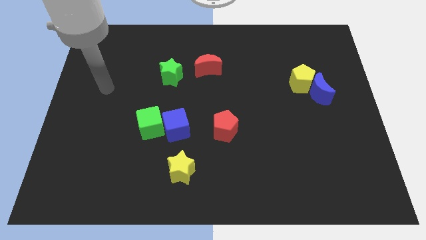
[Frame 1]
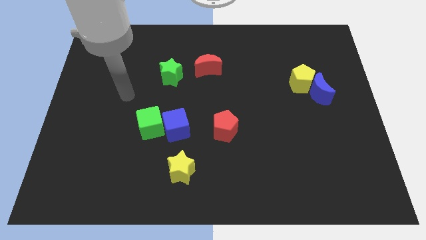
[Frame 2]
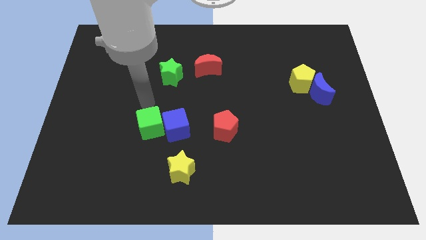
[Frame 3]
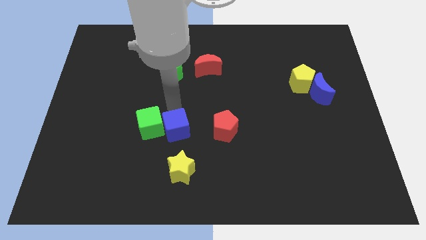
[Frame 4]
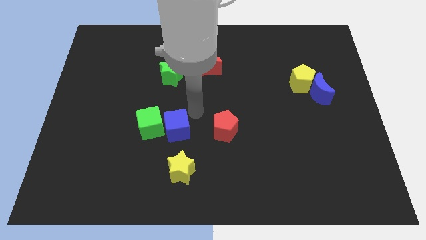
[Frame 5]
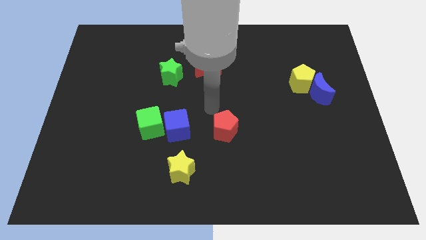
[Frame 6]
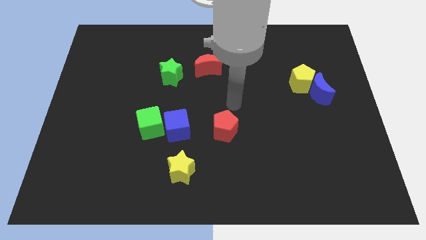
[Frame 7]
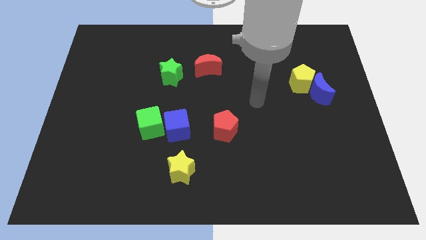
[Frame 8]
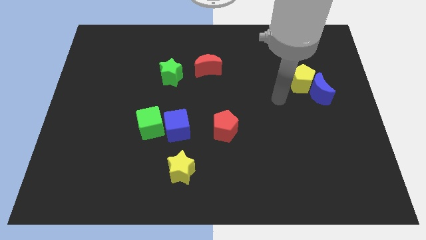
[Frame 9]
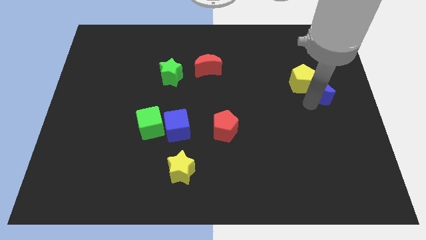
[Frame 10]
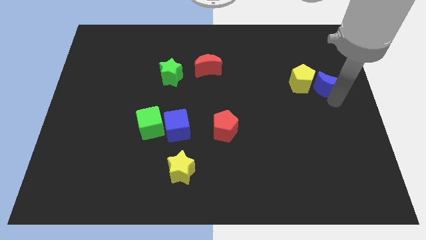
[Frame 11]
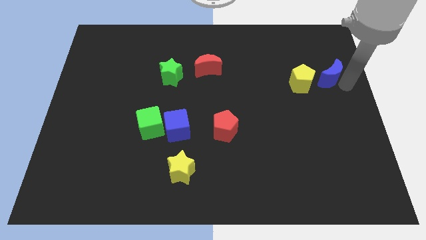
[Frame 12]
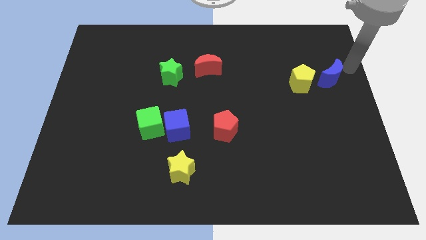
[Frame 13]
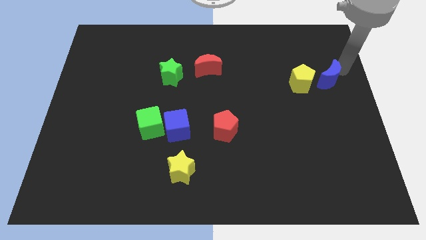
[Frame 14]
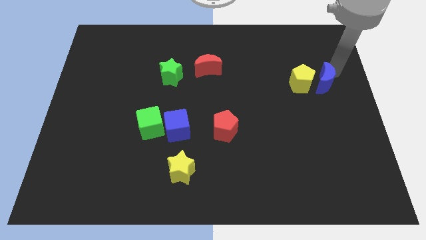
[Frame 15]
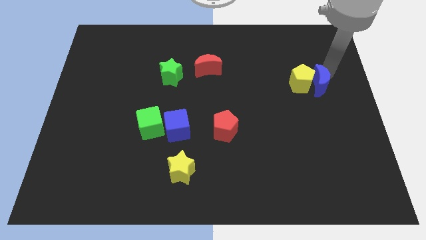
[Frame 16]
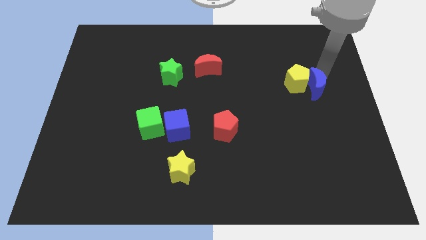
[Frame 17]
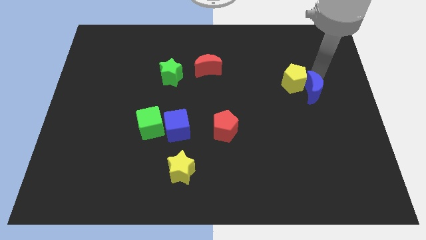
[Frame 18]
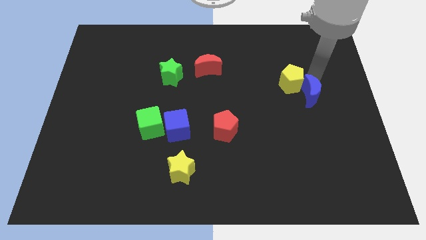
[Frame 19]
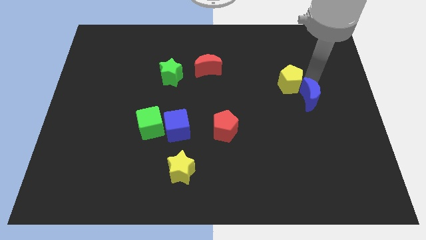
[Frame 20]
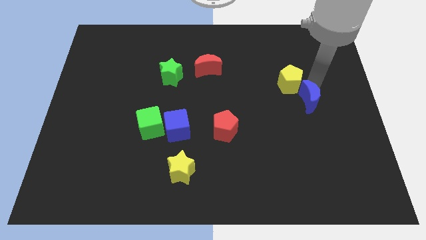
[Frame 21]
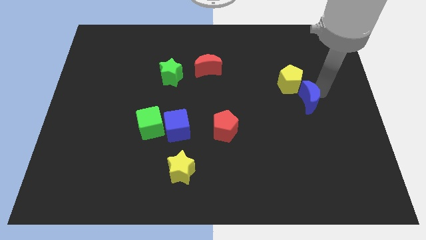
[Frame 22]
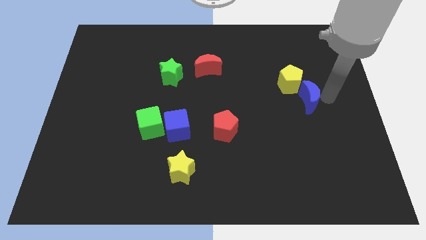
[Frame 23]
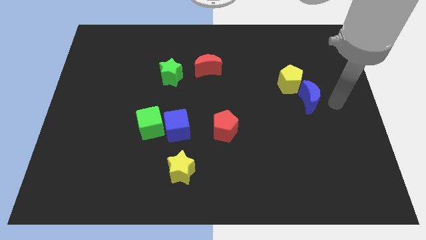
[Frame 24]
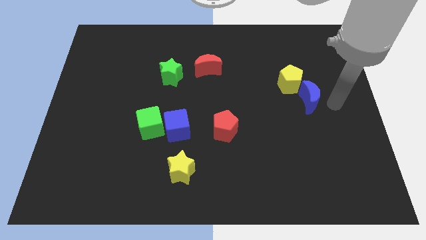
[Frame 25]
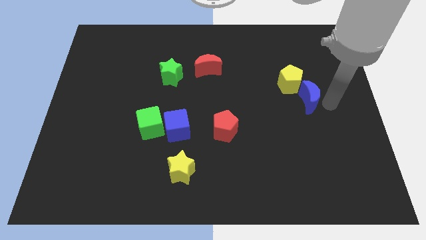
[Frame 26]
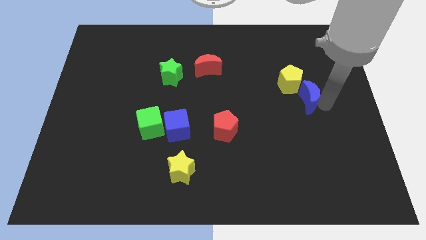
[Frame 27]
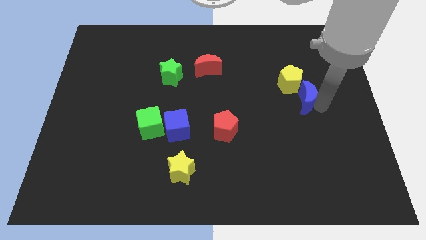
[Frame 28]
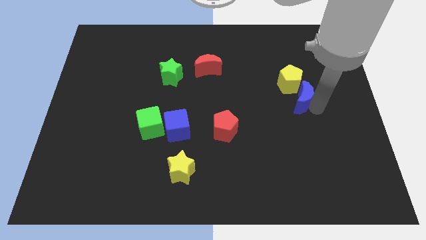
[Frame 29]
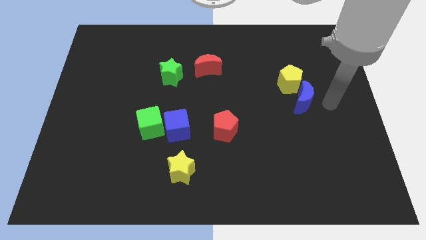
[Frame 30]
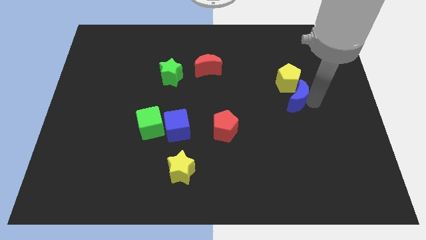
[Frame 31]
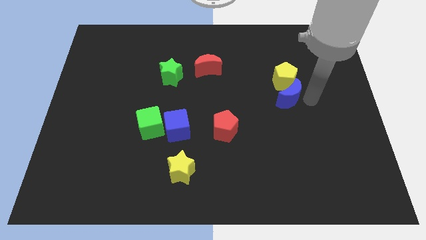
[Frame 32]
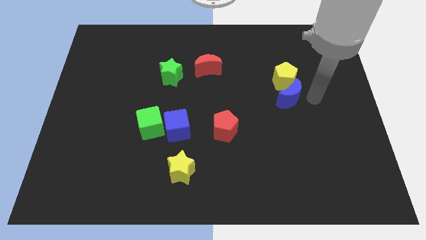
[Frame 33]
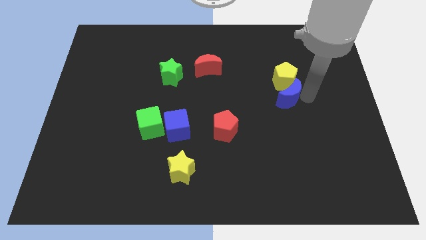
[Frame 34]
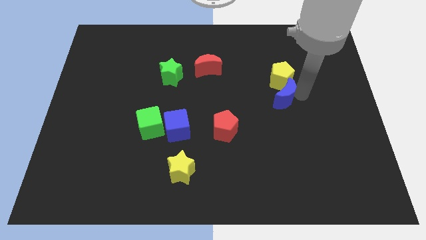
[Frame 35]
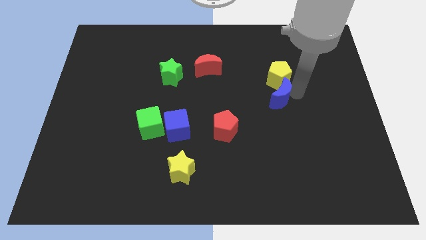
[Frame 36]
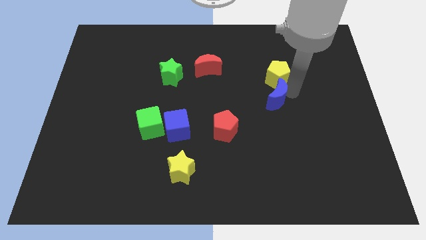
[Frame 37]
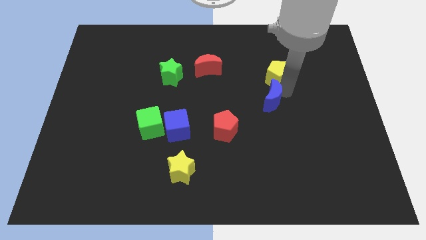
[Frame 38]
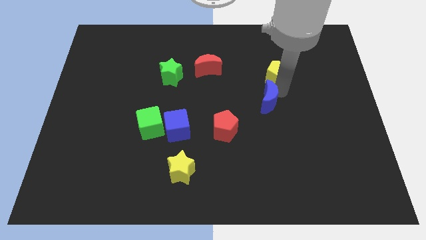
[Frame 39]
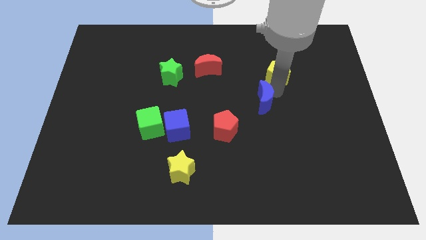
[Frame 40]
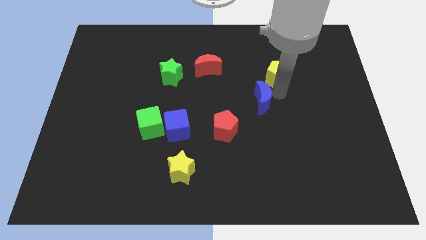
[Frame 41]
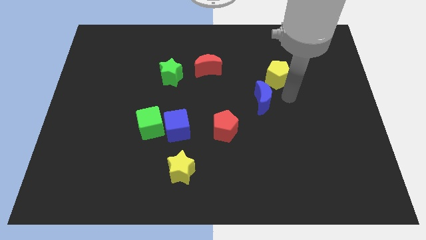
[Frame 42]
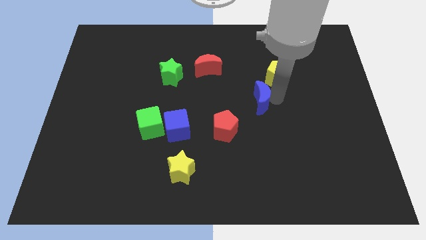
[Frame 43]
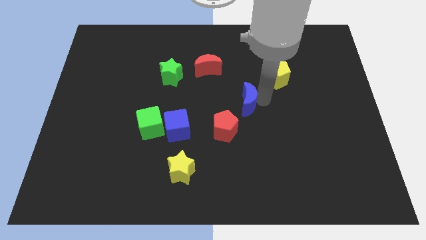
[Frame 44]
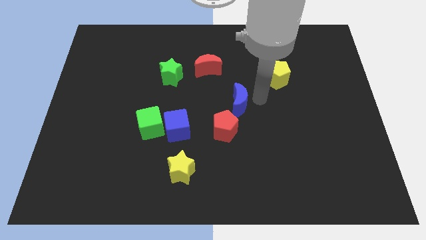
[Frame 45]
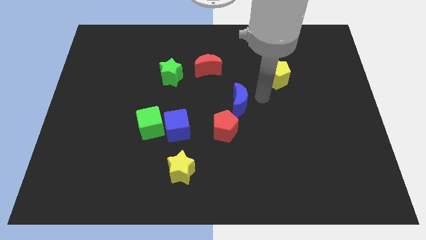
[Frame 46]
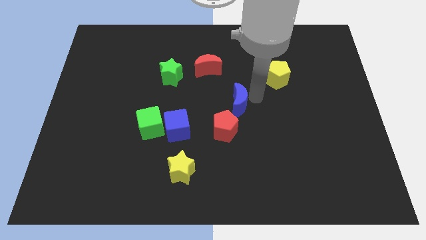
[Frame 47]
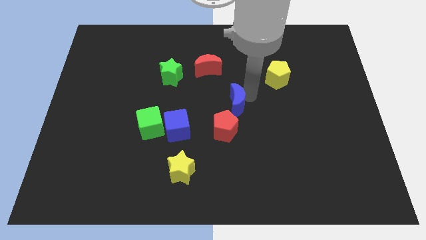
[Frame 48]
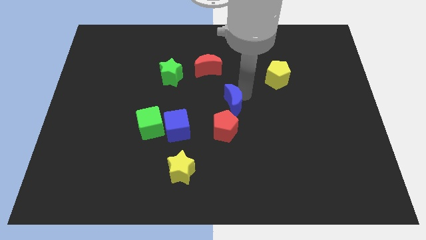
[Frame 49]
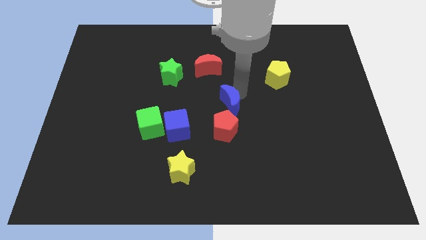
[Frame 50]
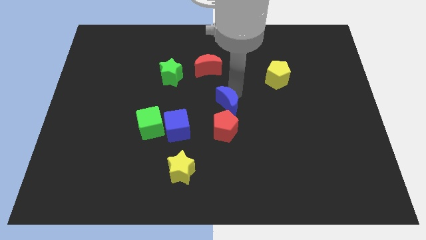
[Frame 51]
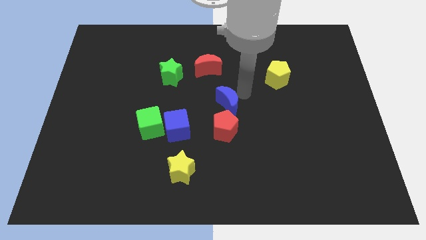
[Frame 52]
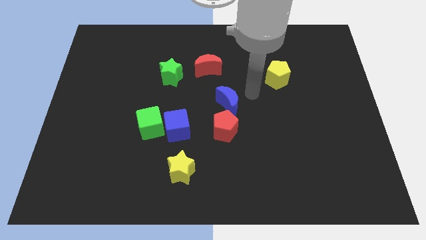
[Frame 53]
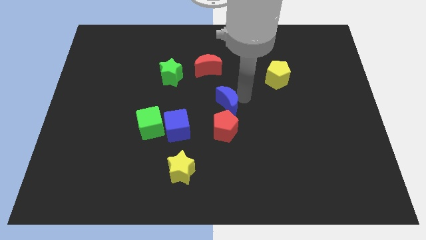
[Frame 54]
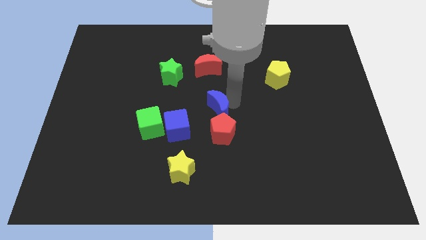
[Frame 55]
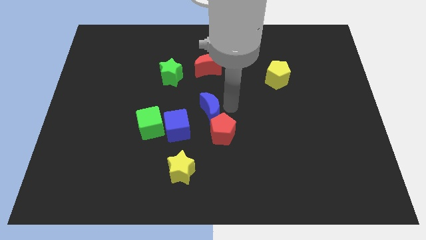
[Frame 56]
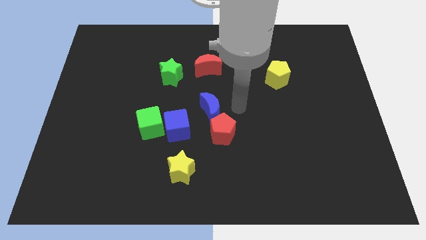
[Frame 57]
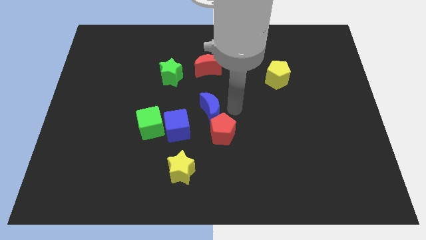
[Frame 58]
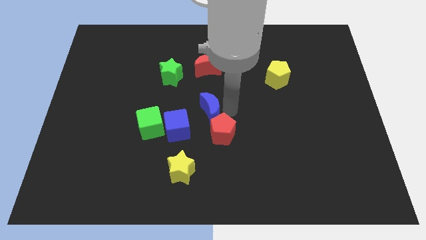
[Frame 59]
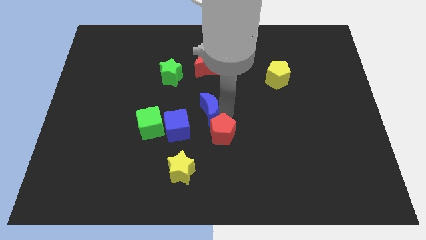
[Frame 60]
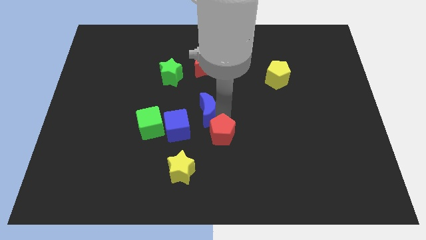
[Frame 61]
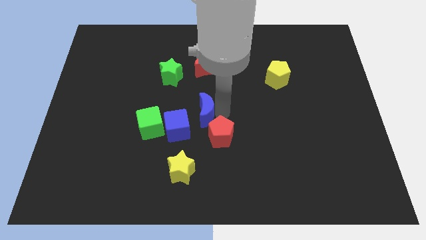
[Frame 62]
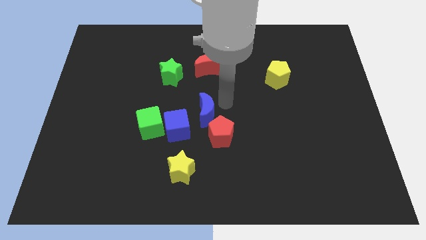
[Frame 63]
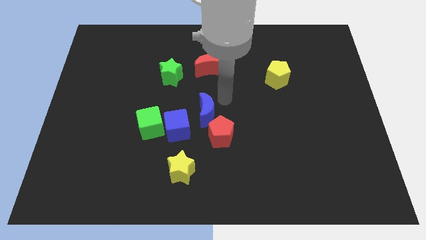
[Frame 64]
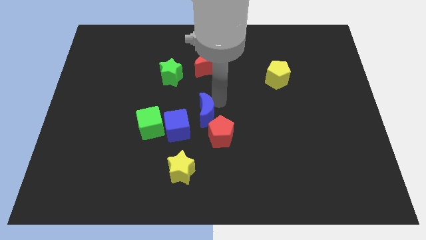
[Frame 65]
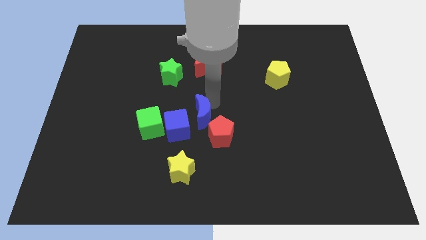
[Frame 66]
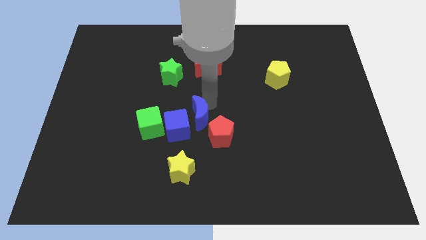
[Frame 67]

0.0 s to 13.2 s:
put the blue moon to the top of the yellow star
